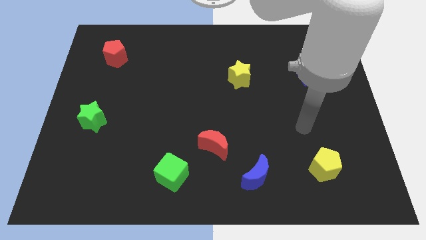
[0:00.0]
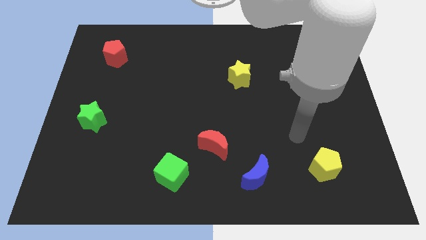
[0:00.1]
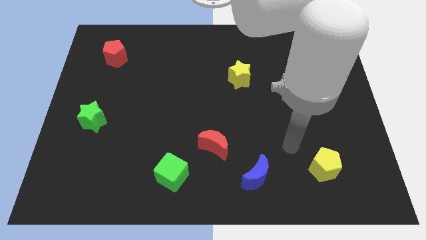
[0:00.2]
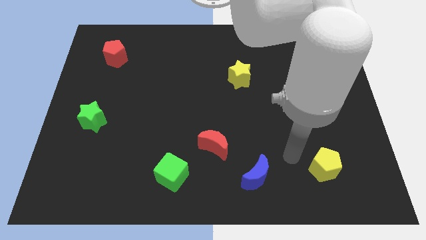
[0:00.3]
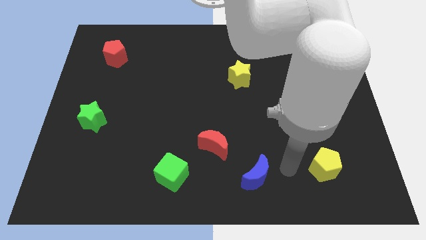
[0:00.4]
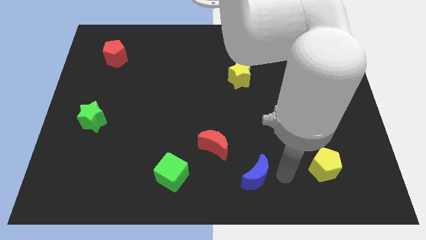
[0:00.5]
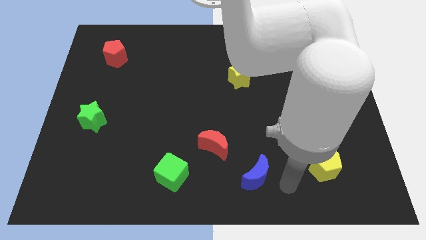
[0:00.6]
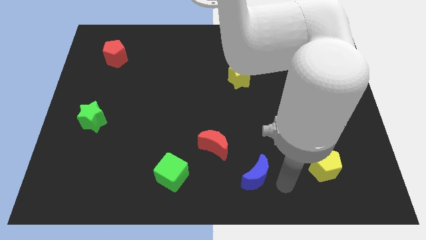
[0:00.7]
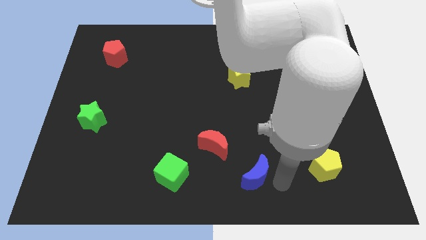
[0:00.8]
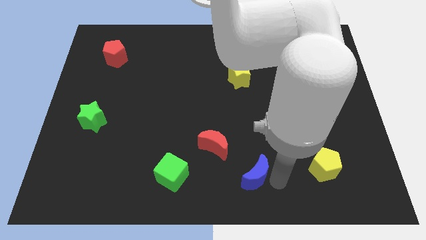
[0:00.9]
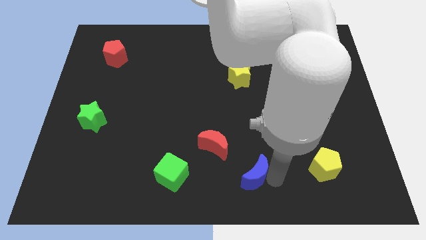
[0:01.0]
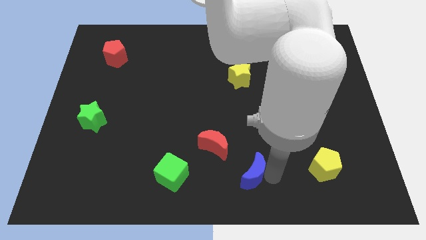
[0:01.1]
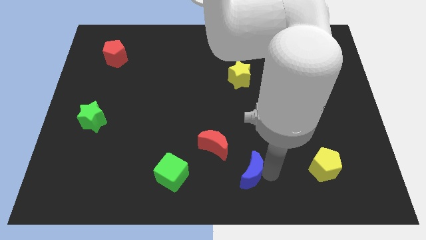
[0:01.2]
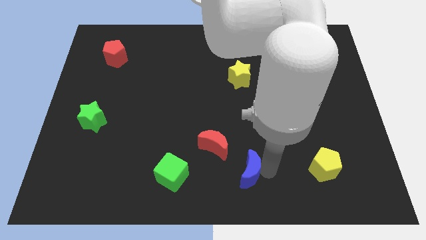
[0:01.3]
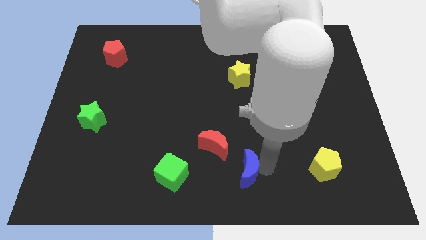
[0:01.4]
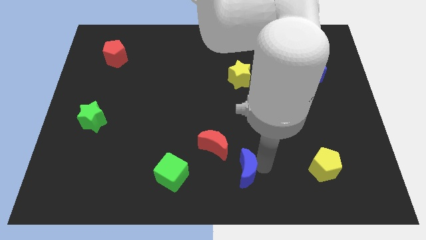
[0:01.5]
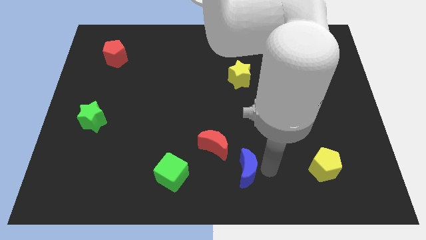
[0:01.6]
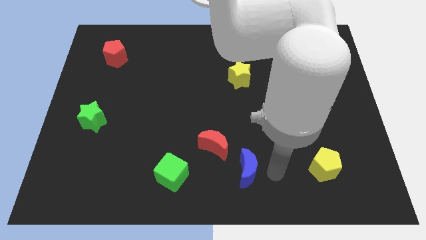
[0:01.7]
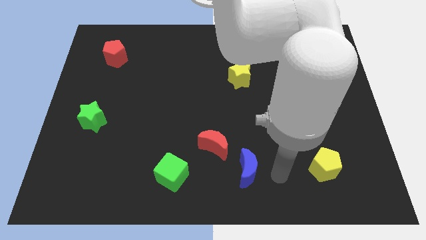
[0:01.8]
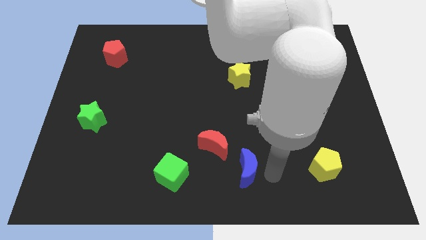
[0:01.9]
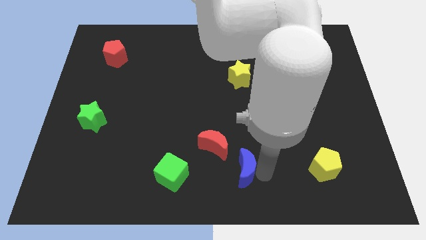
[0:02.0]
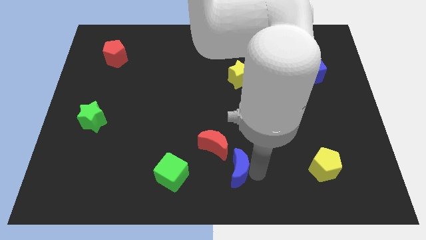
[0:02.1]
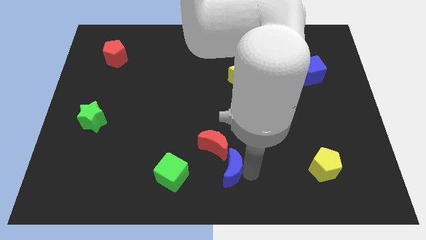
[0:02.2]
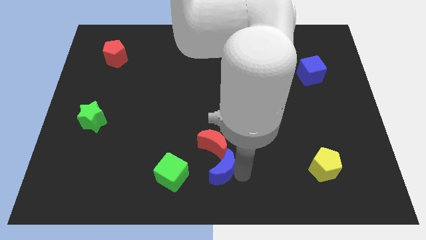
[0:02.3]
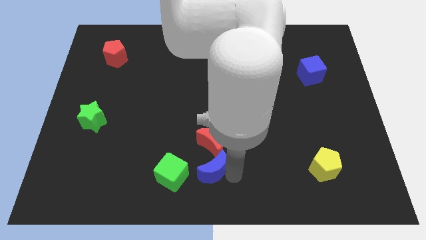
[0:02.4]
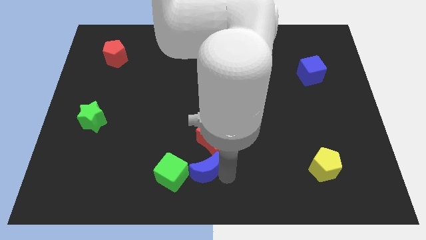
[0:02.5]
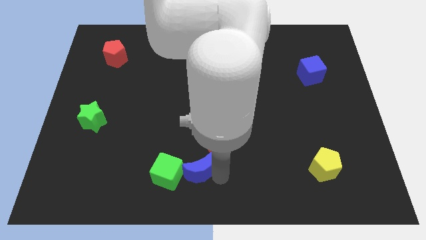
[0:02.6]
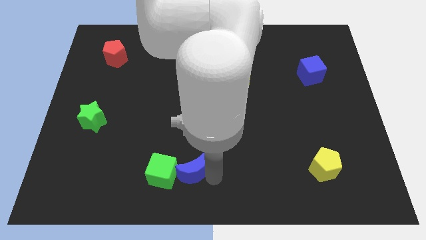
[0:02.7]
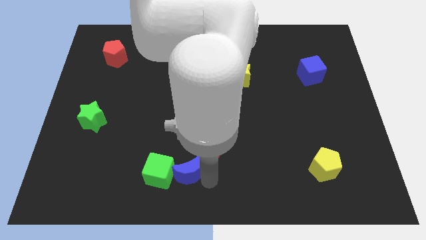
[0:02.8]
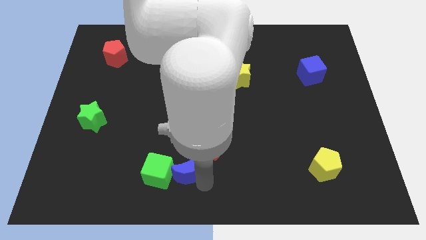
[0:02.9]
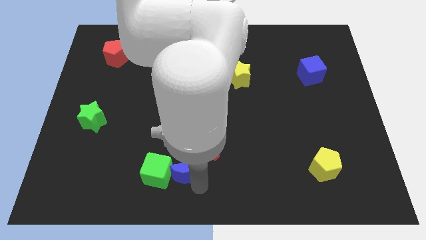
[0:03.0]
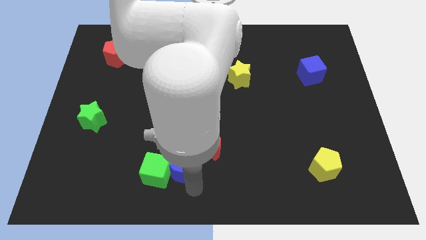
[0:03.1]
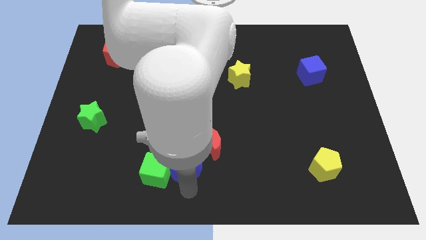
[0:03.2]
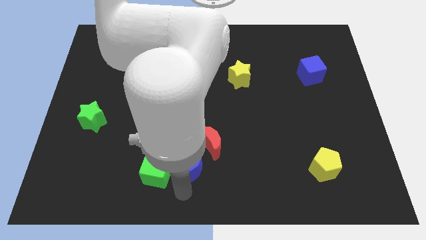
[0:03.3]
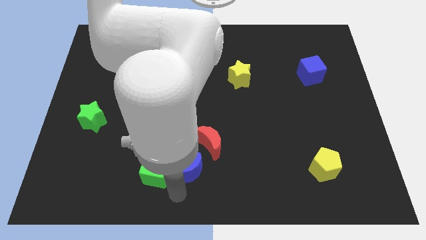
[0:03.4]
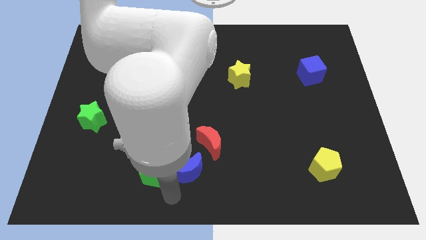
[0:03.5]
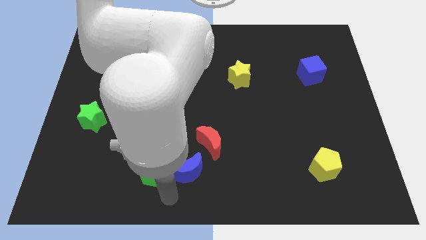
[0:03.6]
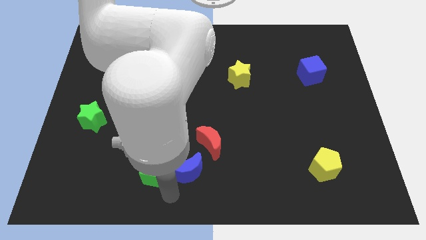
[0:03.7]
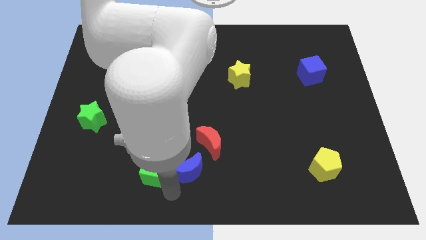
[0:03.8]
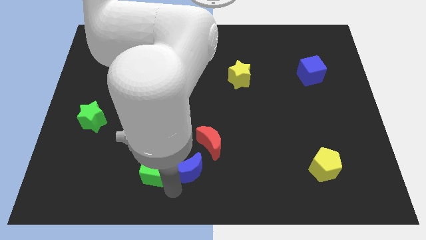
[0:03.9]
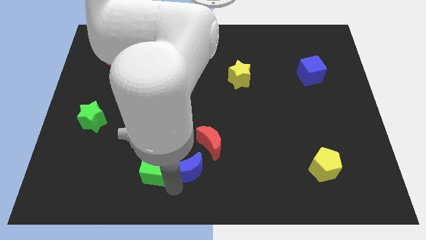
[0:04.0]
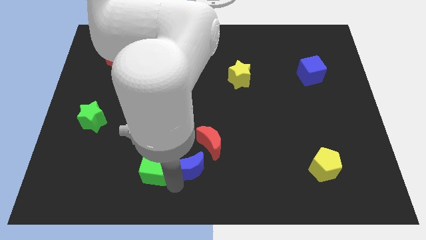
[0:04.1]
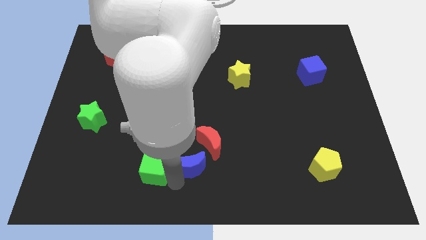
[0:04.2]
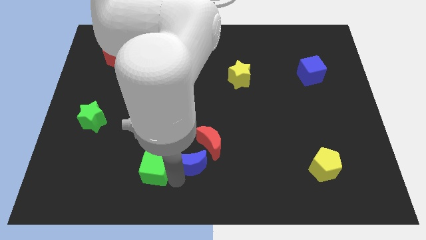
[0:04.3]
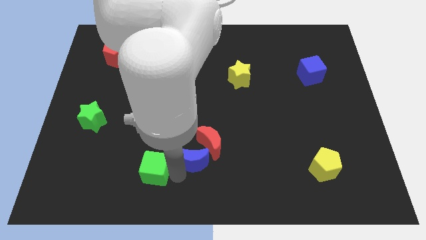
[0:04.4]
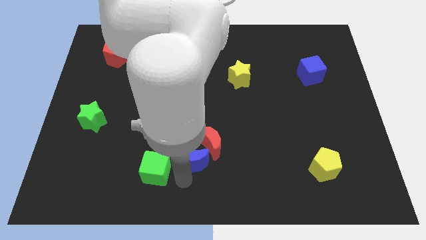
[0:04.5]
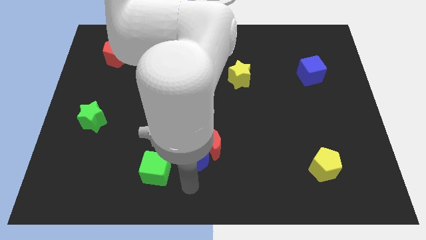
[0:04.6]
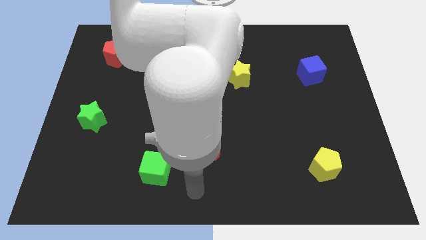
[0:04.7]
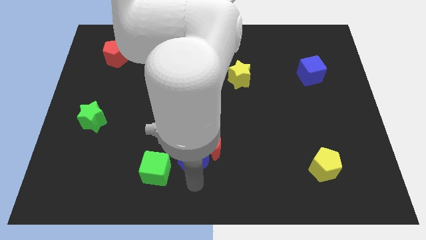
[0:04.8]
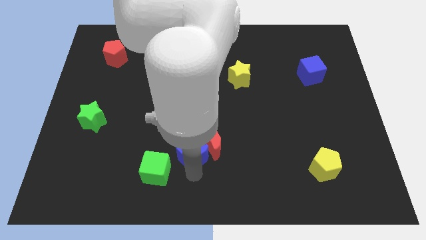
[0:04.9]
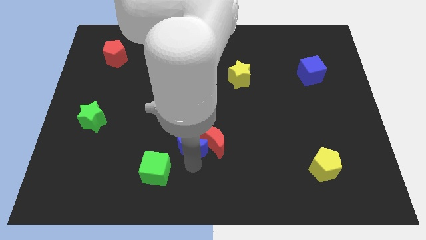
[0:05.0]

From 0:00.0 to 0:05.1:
slide the blue moon to the top left of the red moon

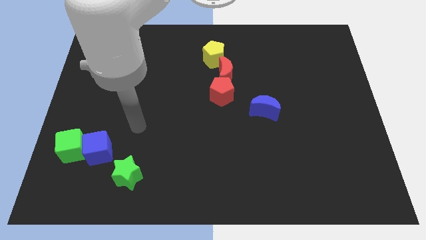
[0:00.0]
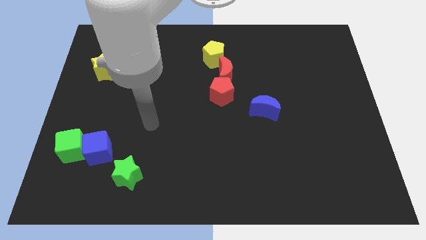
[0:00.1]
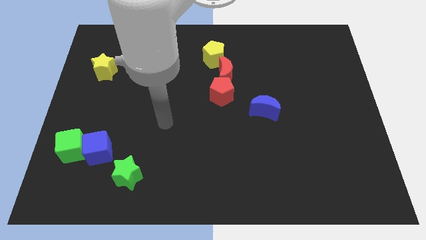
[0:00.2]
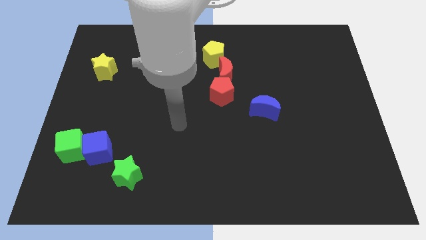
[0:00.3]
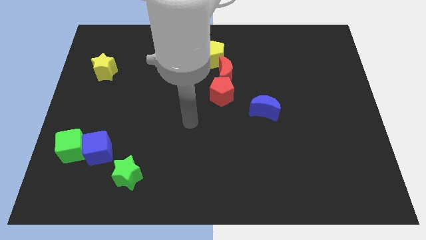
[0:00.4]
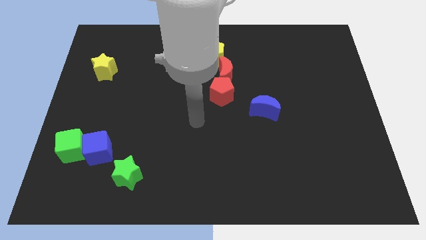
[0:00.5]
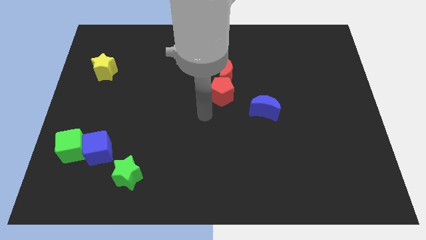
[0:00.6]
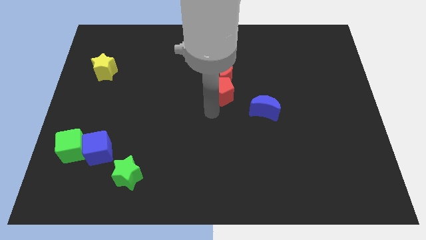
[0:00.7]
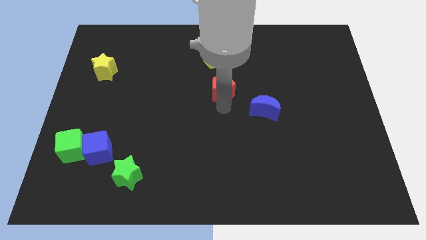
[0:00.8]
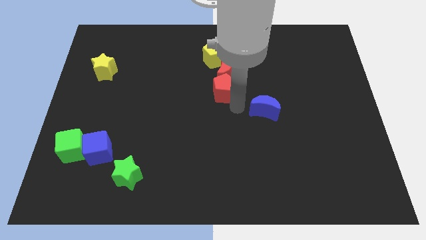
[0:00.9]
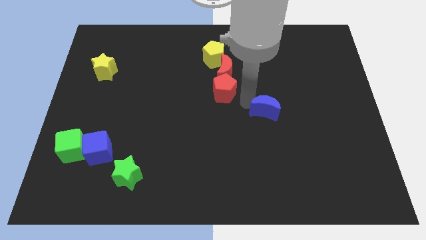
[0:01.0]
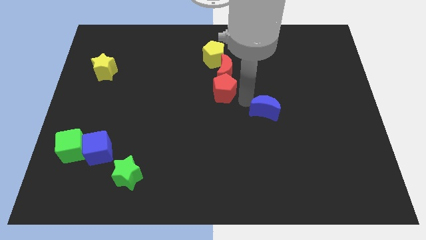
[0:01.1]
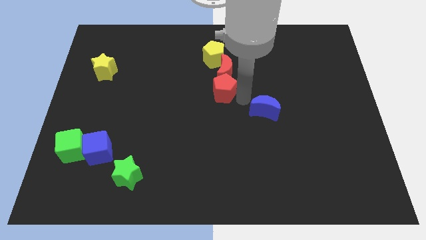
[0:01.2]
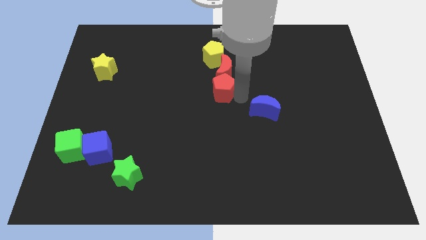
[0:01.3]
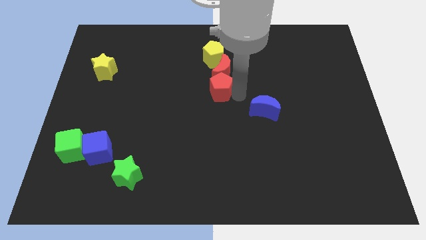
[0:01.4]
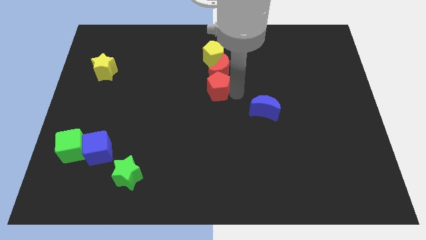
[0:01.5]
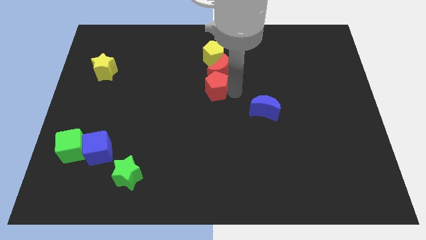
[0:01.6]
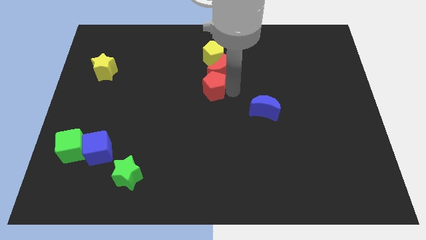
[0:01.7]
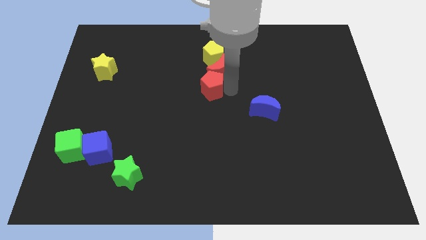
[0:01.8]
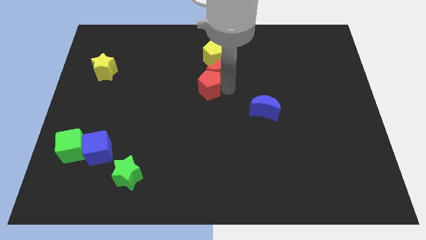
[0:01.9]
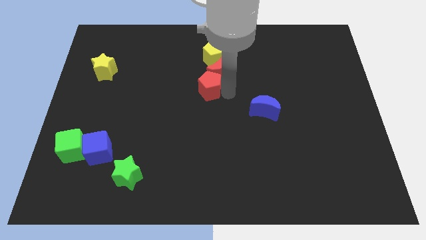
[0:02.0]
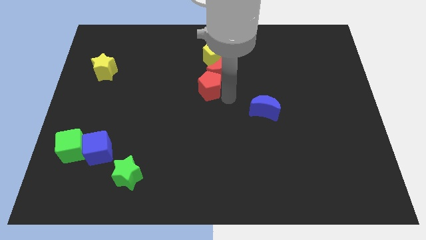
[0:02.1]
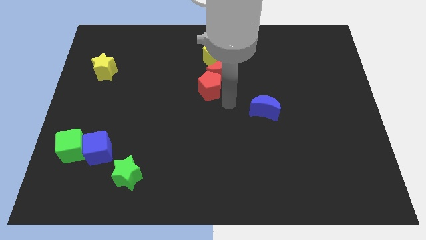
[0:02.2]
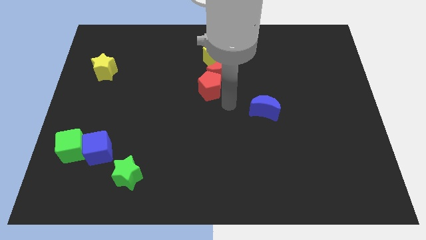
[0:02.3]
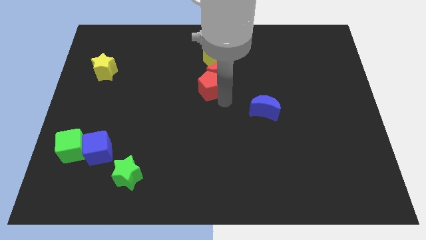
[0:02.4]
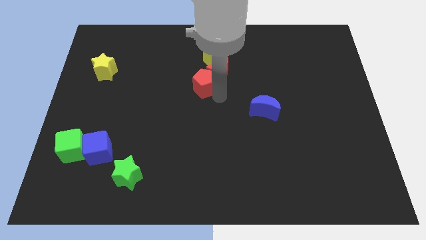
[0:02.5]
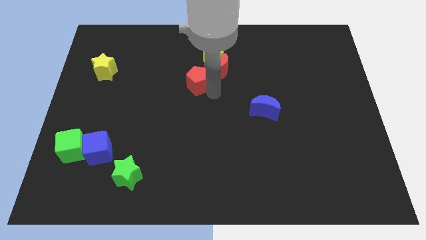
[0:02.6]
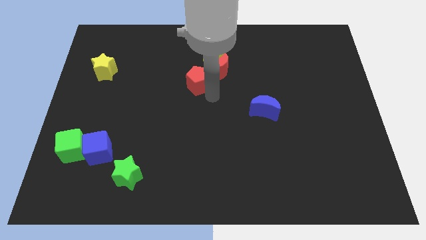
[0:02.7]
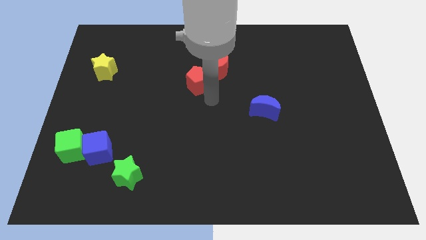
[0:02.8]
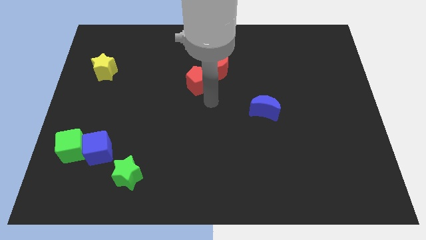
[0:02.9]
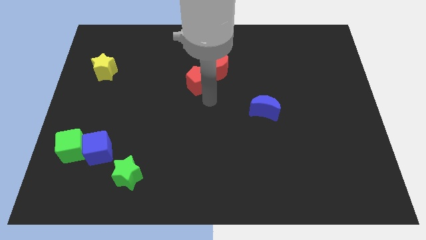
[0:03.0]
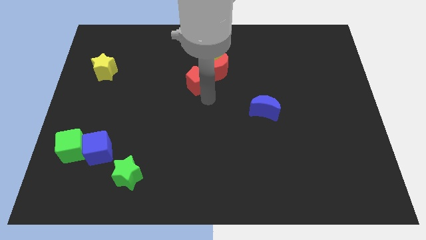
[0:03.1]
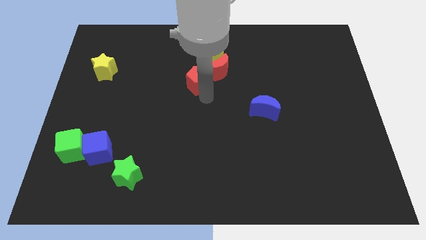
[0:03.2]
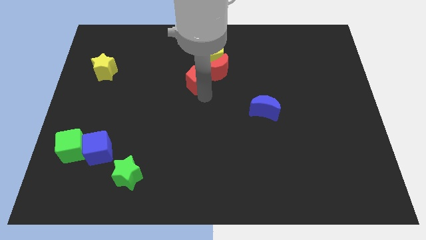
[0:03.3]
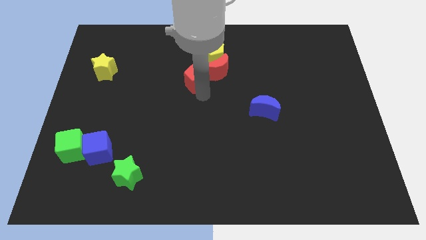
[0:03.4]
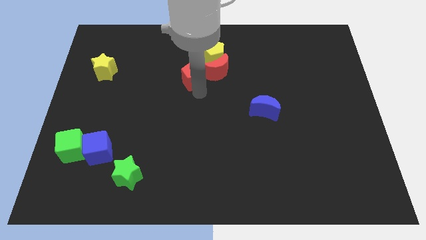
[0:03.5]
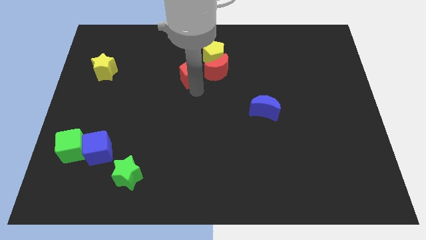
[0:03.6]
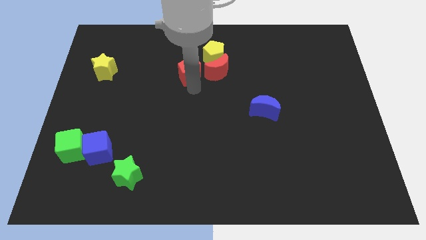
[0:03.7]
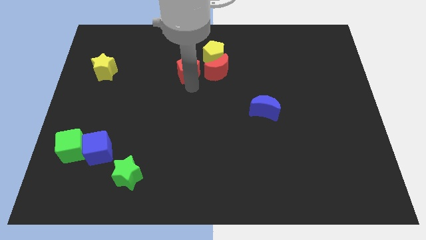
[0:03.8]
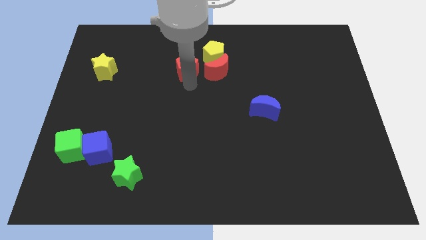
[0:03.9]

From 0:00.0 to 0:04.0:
put the red pentagon just left of the yellow pentagon
